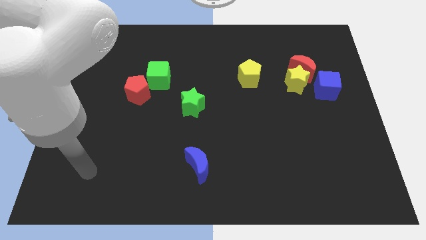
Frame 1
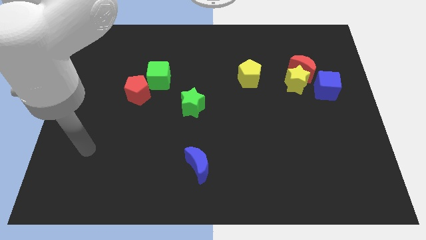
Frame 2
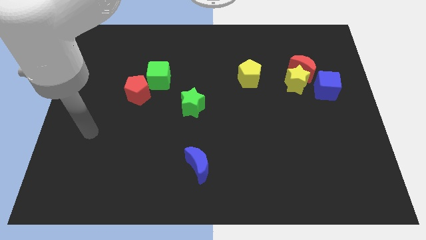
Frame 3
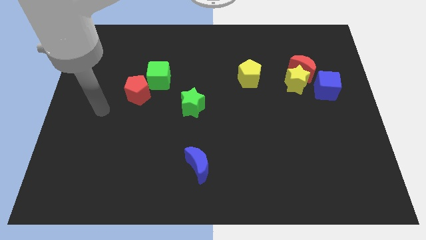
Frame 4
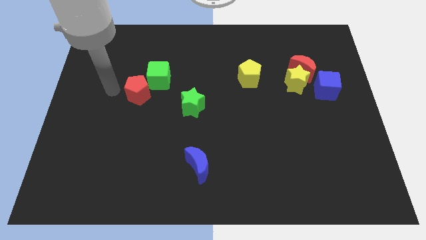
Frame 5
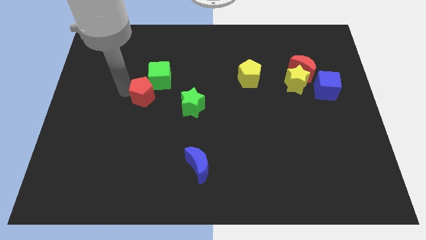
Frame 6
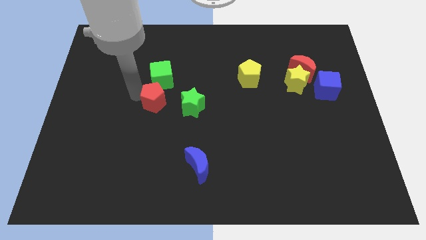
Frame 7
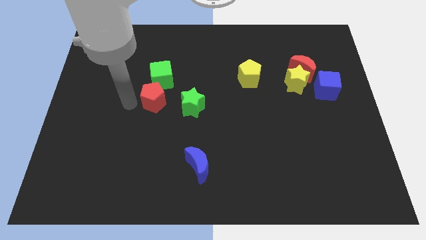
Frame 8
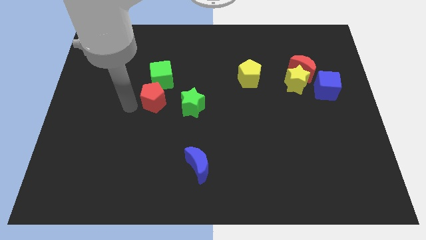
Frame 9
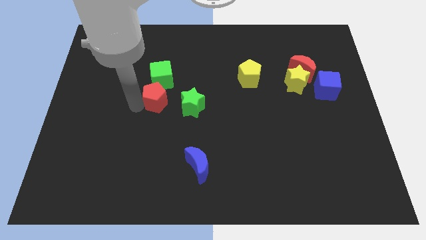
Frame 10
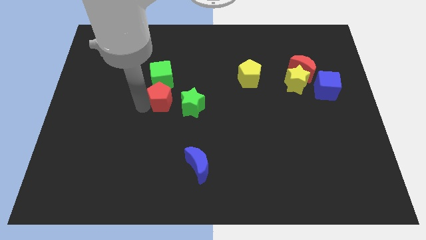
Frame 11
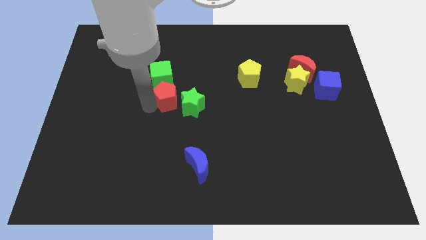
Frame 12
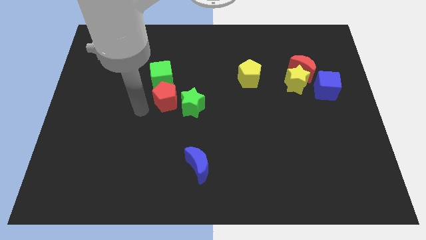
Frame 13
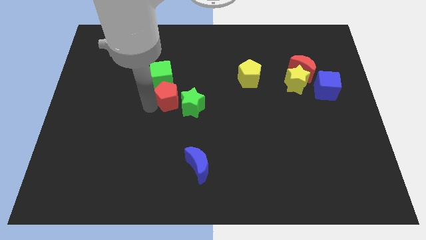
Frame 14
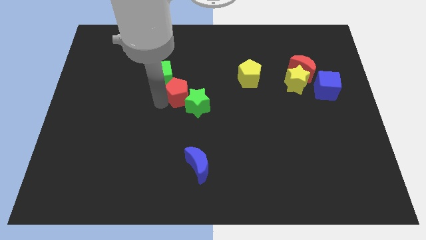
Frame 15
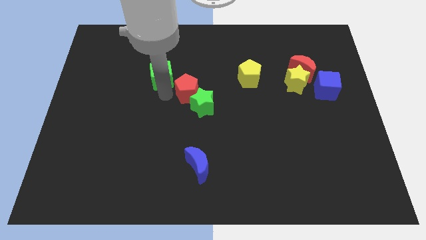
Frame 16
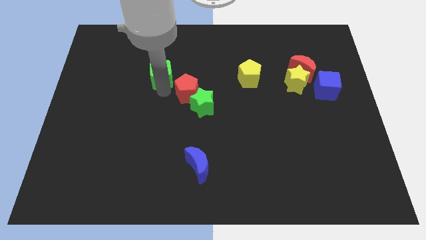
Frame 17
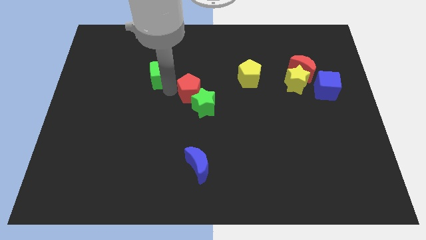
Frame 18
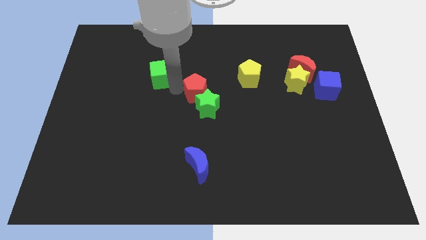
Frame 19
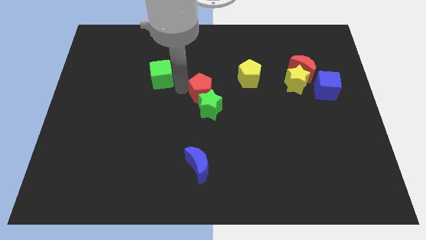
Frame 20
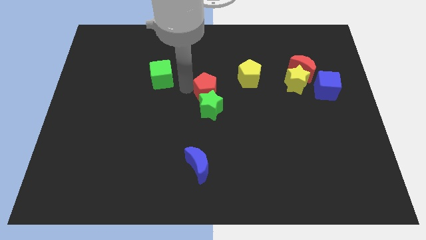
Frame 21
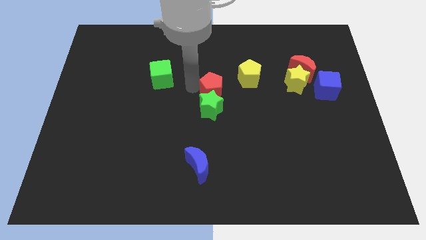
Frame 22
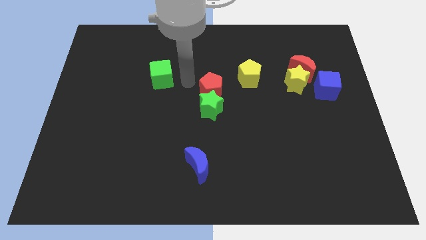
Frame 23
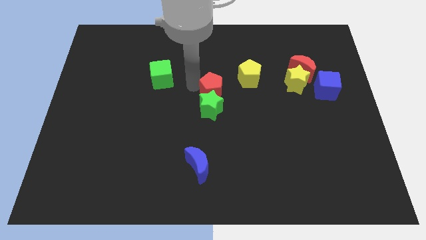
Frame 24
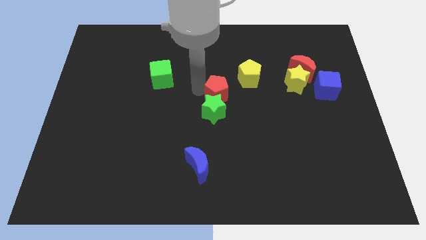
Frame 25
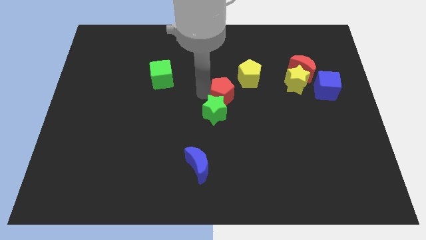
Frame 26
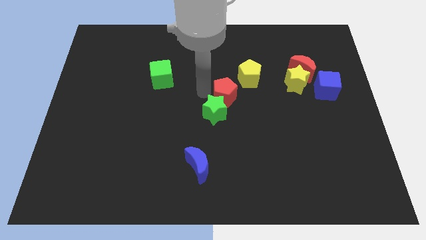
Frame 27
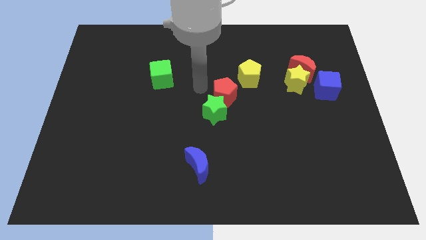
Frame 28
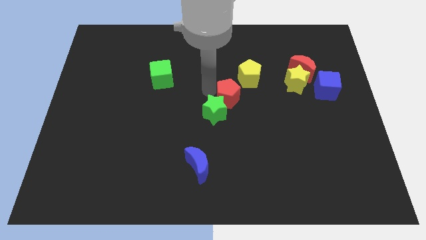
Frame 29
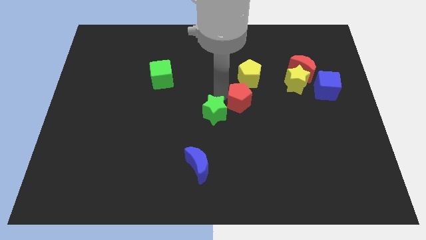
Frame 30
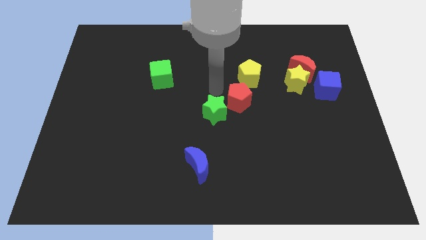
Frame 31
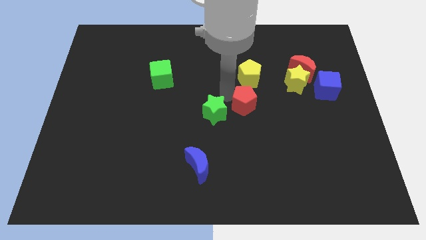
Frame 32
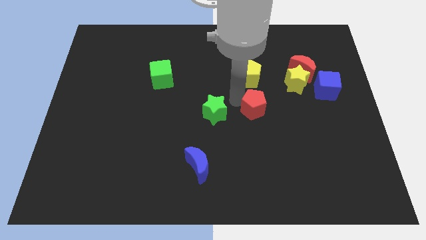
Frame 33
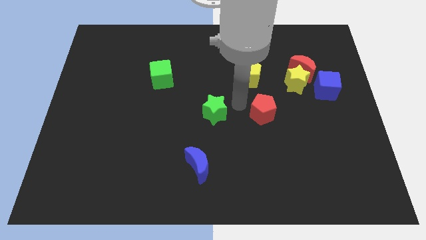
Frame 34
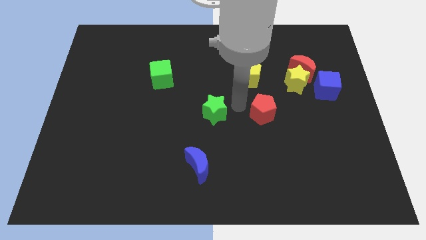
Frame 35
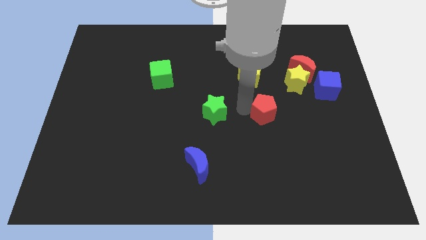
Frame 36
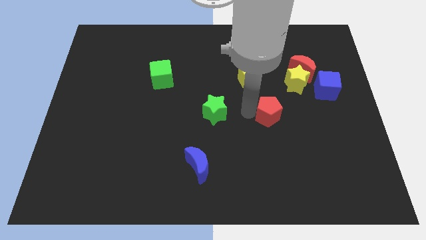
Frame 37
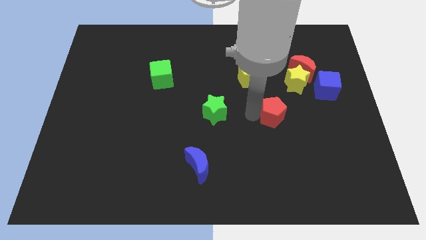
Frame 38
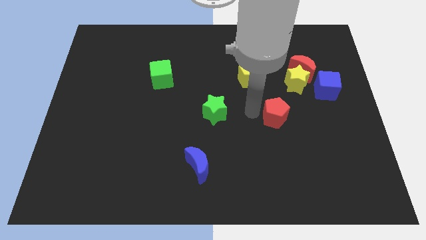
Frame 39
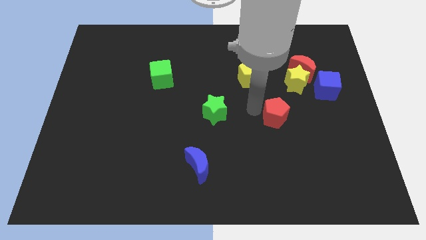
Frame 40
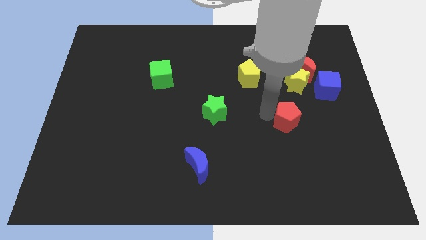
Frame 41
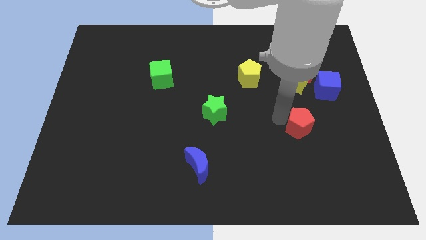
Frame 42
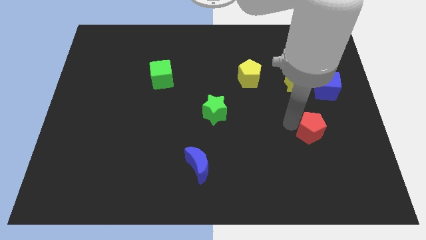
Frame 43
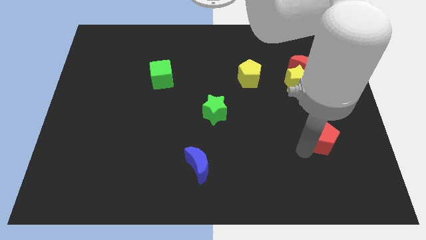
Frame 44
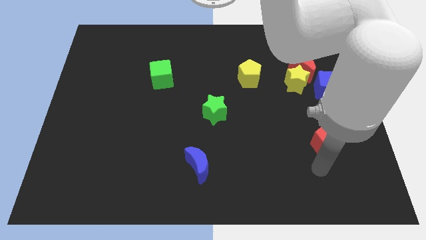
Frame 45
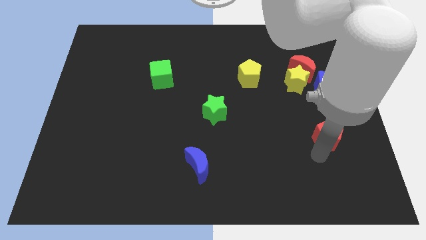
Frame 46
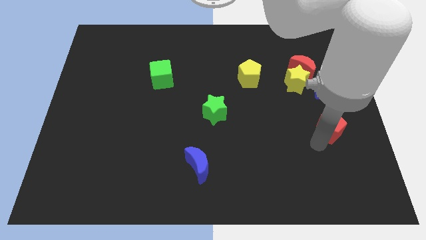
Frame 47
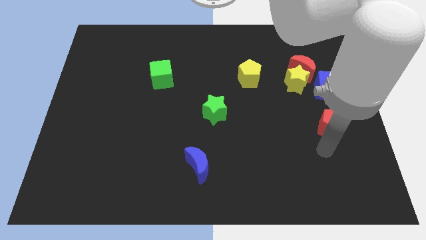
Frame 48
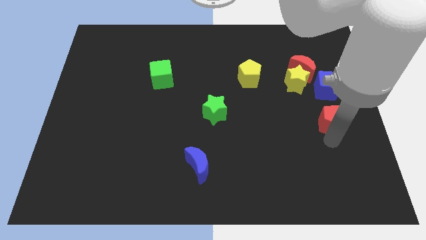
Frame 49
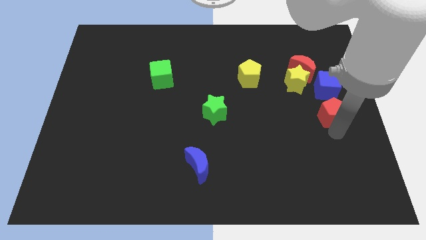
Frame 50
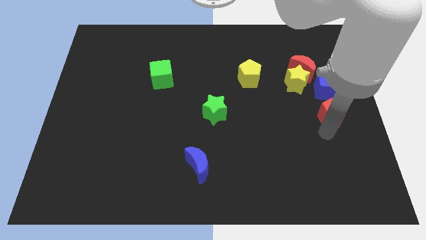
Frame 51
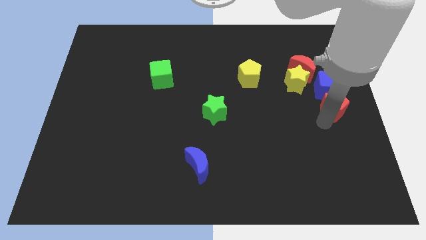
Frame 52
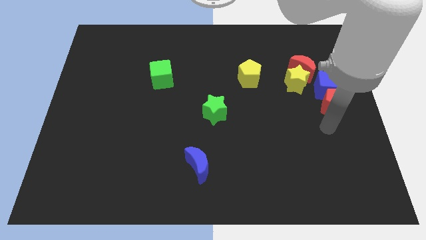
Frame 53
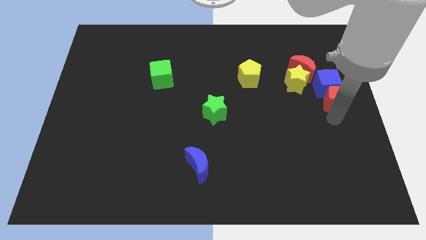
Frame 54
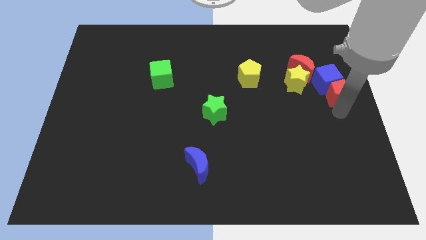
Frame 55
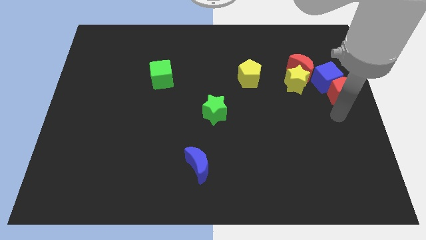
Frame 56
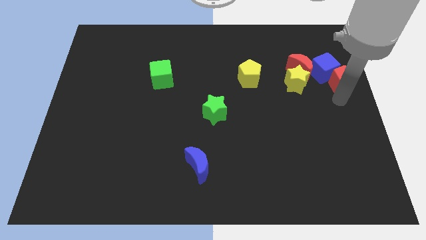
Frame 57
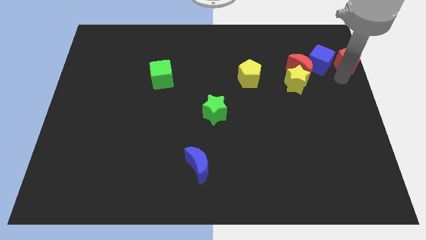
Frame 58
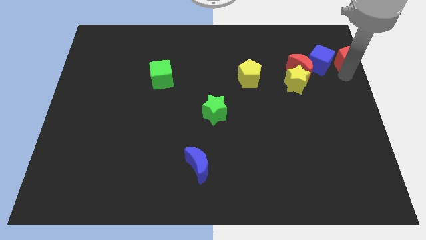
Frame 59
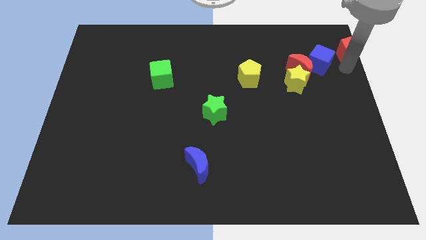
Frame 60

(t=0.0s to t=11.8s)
push the red pentagon to the upper right corner

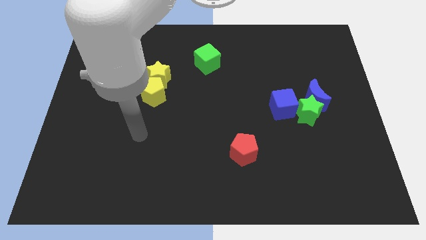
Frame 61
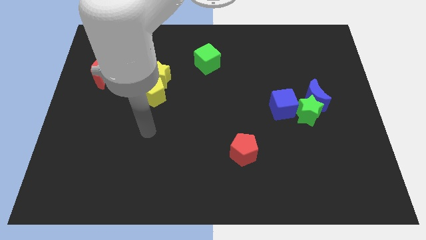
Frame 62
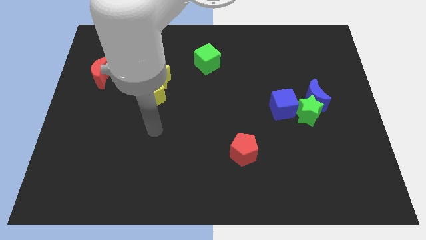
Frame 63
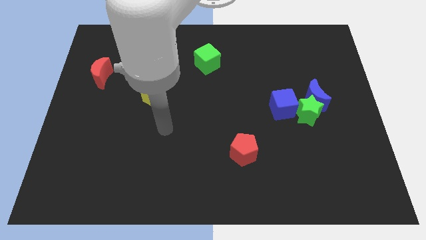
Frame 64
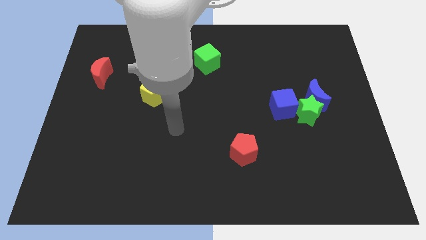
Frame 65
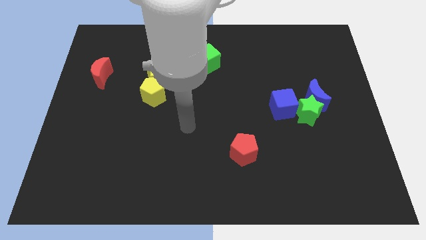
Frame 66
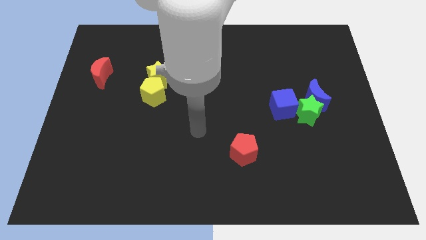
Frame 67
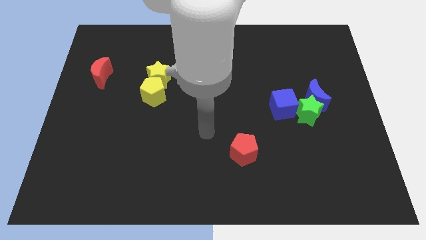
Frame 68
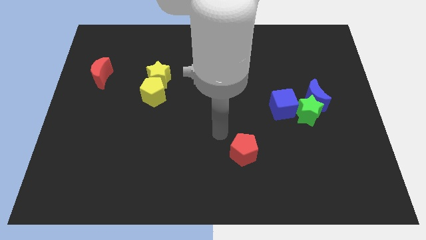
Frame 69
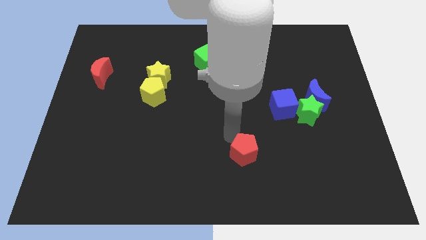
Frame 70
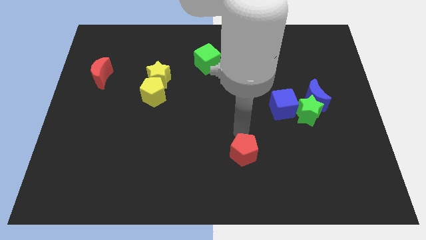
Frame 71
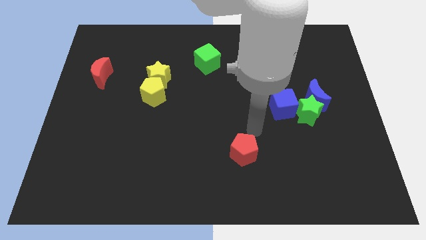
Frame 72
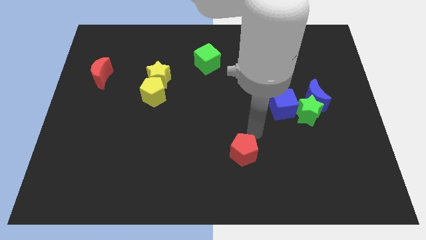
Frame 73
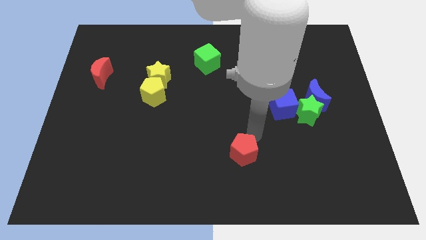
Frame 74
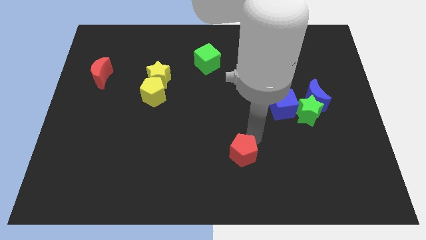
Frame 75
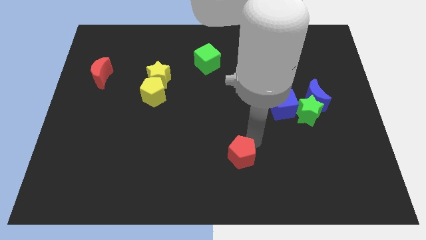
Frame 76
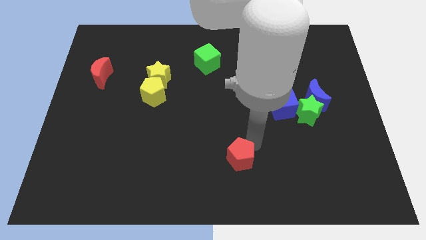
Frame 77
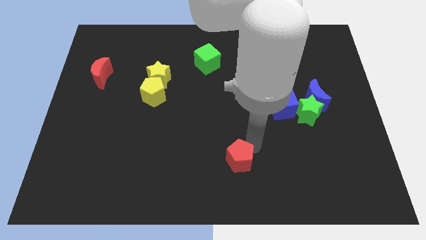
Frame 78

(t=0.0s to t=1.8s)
put the red pentagon to the bottom
